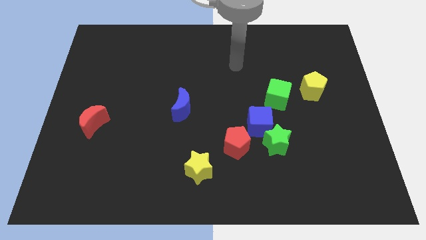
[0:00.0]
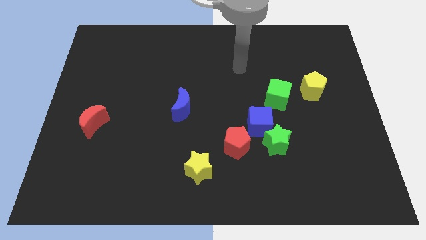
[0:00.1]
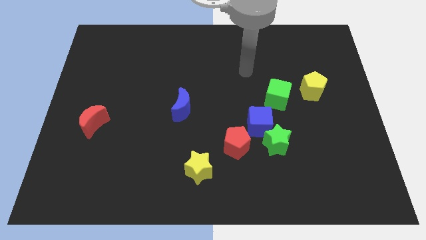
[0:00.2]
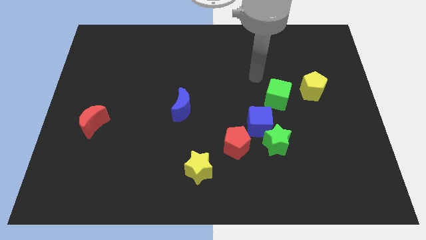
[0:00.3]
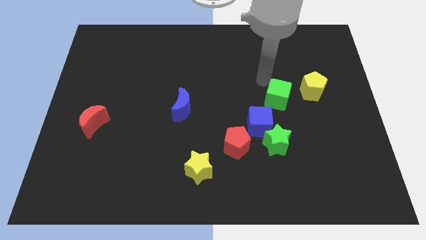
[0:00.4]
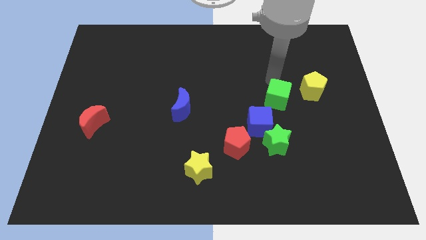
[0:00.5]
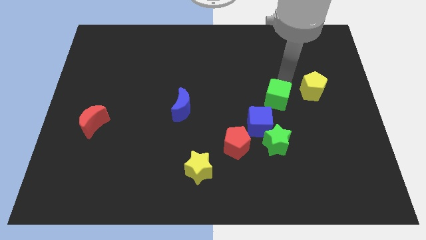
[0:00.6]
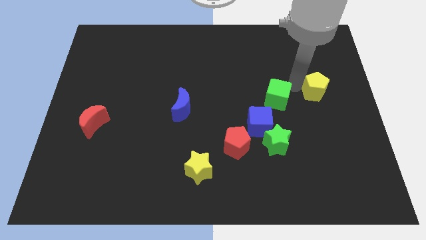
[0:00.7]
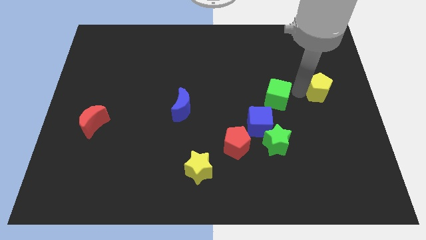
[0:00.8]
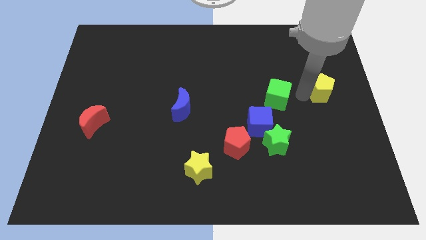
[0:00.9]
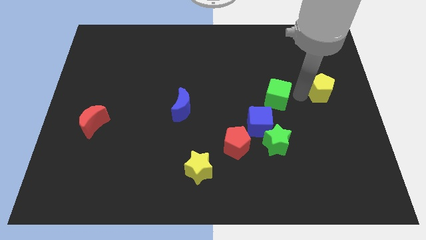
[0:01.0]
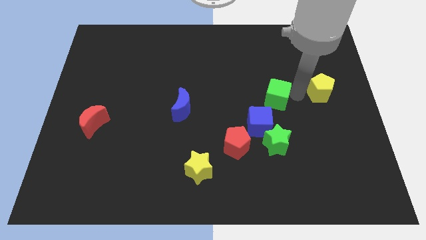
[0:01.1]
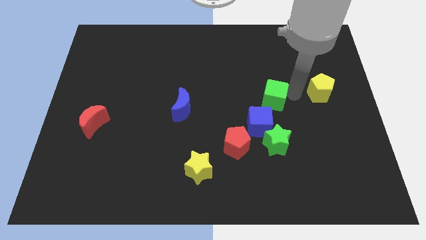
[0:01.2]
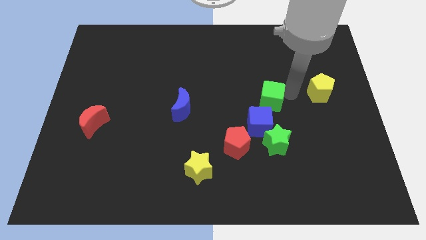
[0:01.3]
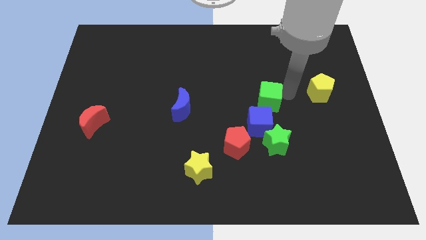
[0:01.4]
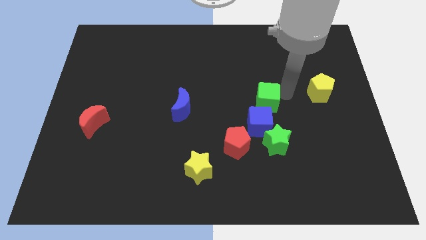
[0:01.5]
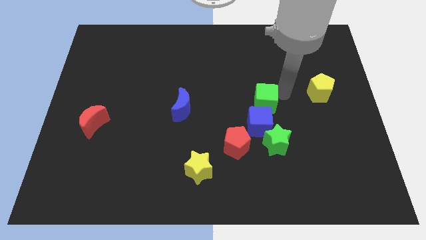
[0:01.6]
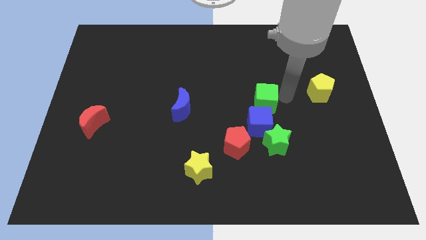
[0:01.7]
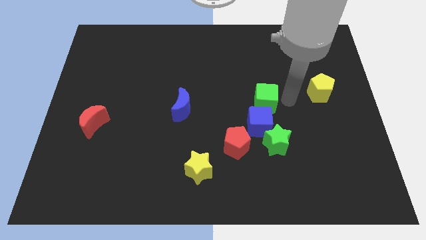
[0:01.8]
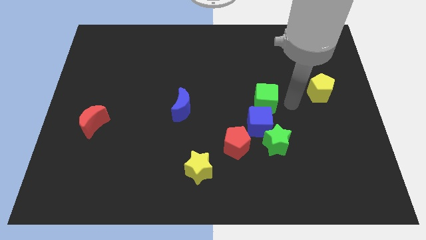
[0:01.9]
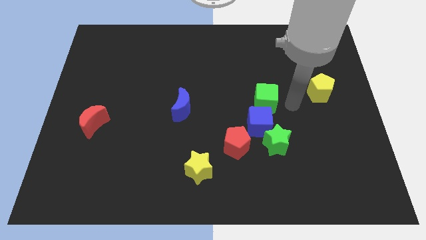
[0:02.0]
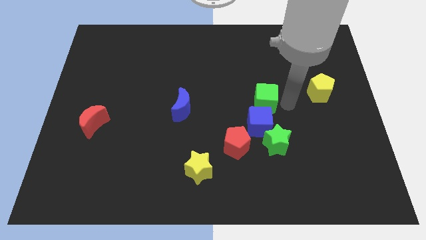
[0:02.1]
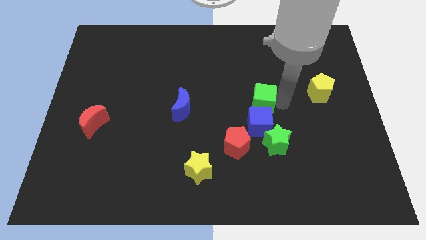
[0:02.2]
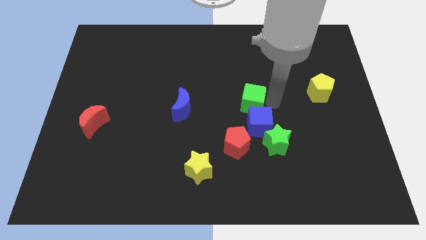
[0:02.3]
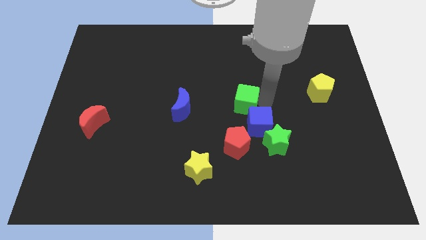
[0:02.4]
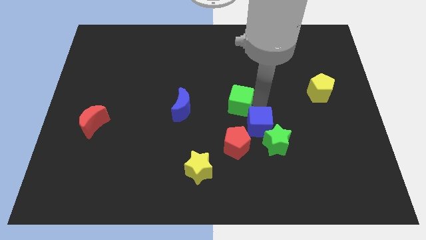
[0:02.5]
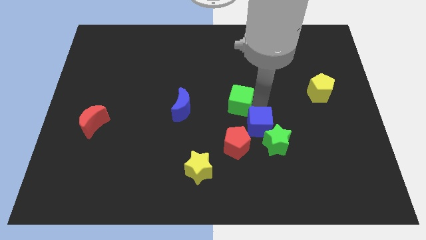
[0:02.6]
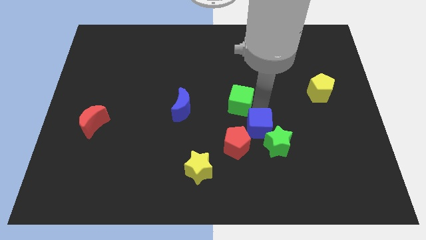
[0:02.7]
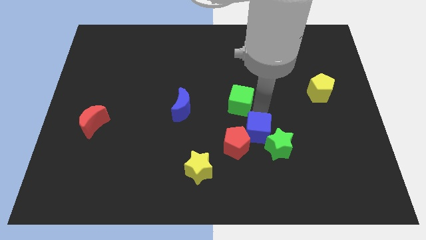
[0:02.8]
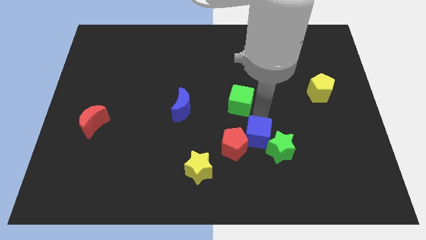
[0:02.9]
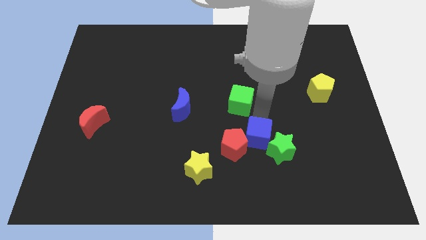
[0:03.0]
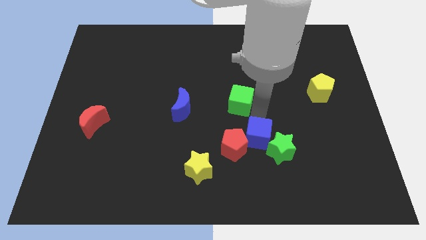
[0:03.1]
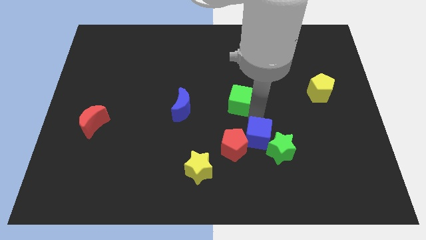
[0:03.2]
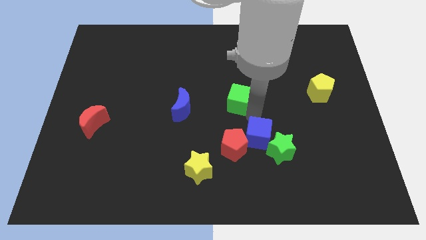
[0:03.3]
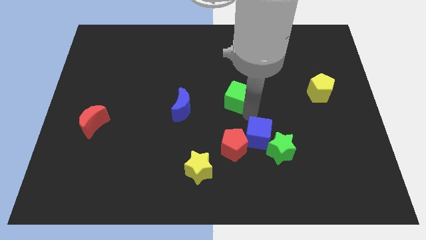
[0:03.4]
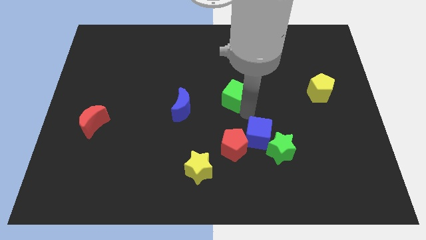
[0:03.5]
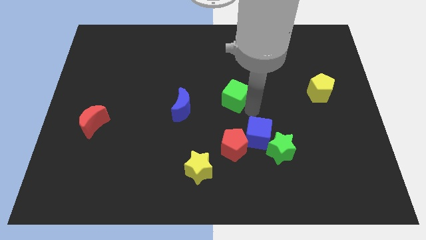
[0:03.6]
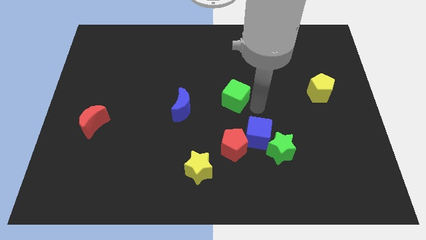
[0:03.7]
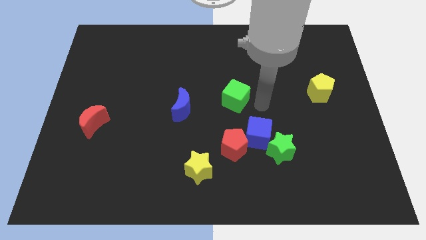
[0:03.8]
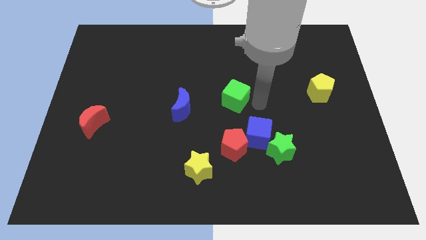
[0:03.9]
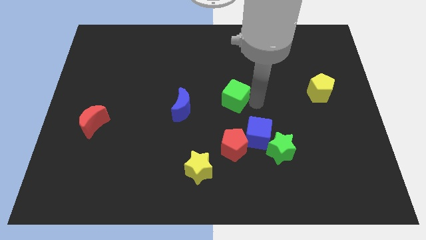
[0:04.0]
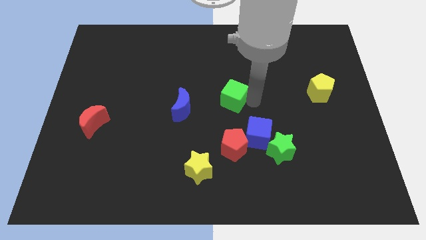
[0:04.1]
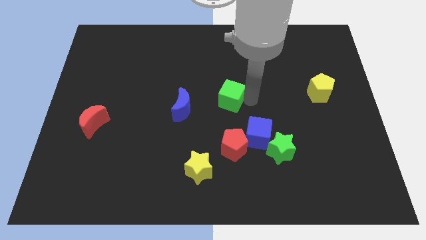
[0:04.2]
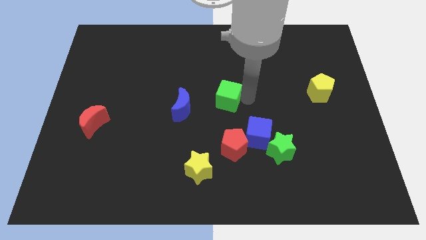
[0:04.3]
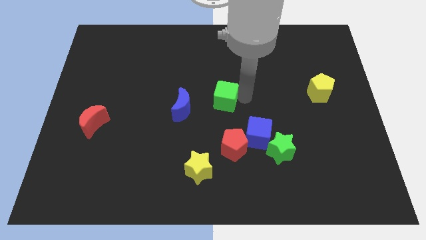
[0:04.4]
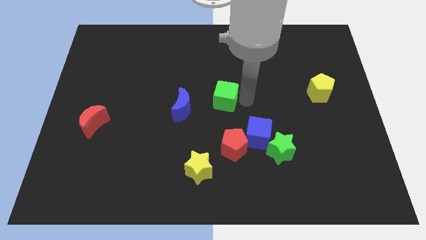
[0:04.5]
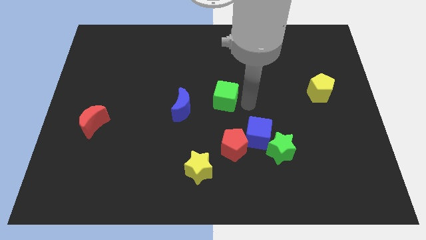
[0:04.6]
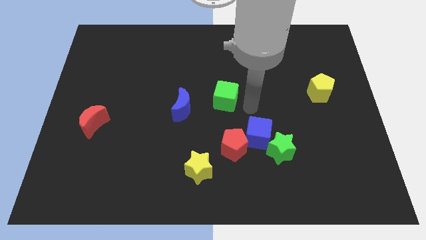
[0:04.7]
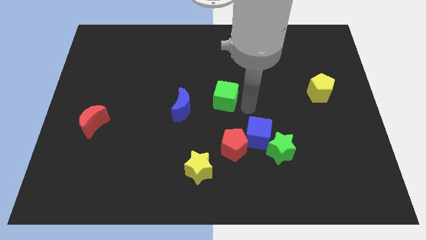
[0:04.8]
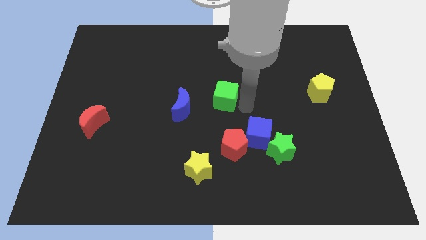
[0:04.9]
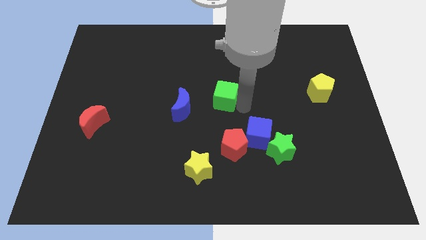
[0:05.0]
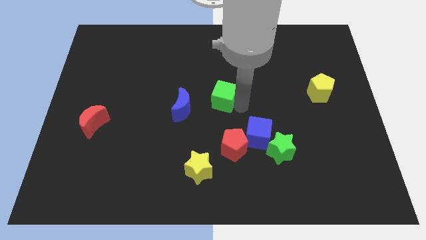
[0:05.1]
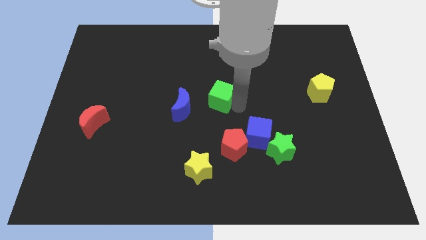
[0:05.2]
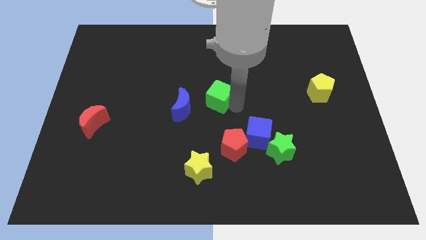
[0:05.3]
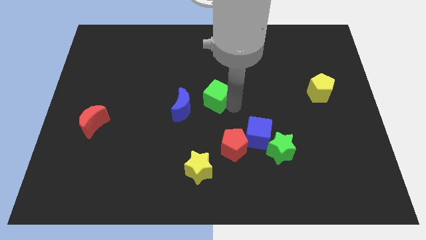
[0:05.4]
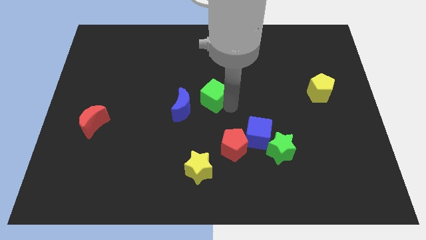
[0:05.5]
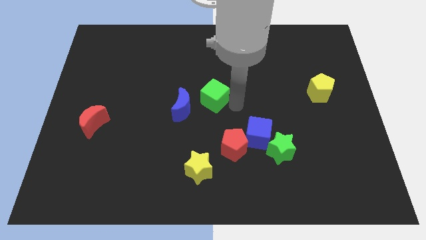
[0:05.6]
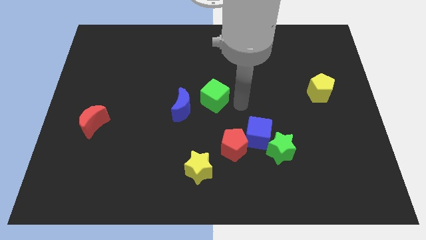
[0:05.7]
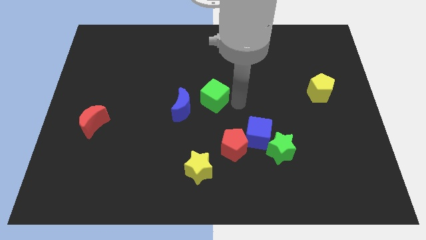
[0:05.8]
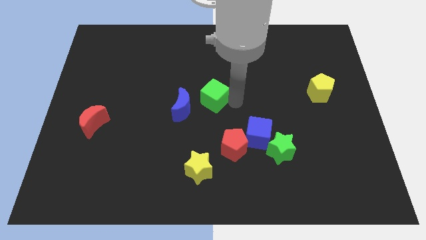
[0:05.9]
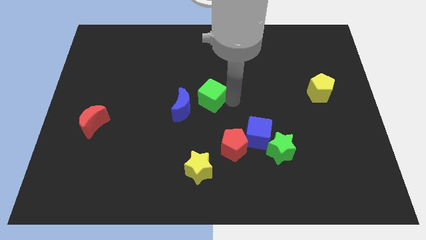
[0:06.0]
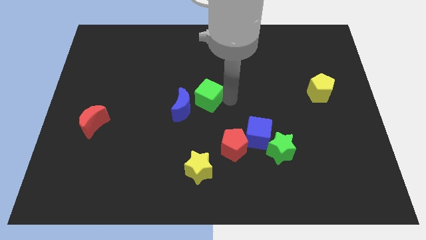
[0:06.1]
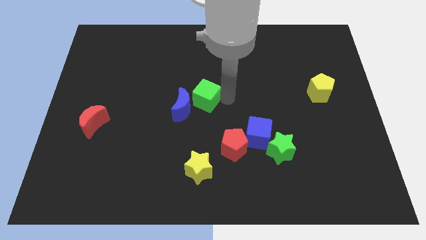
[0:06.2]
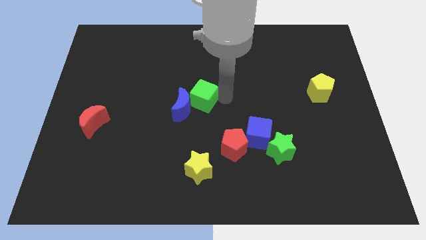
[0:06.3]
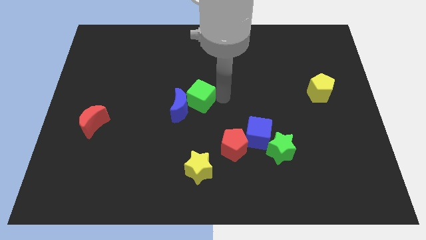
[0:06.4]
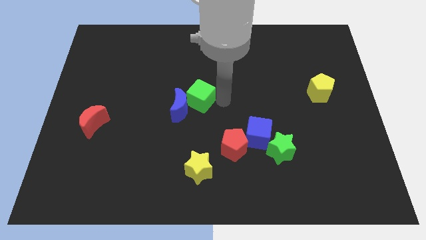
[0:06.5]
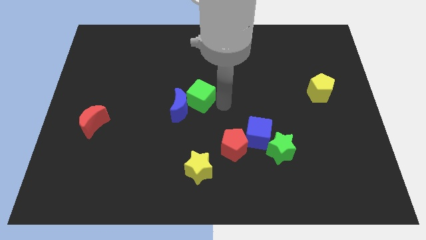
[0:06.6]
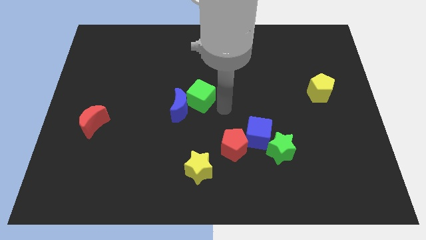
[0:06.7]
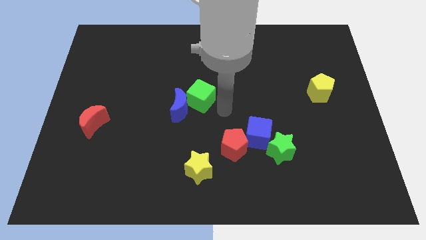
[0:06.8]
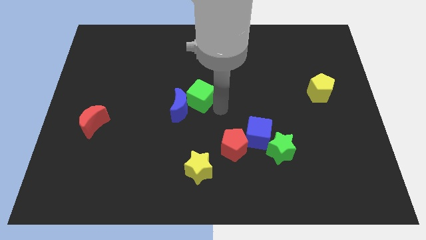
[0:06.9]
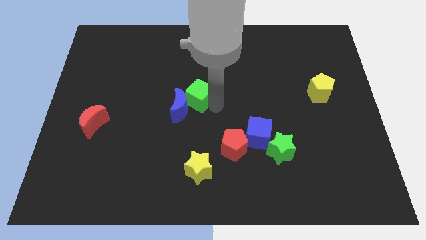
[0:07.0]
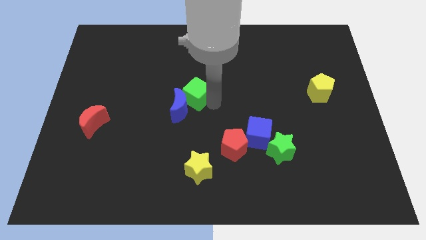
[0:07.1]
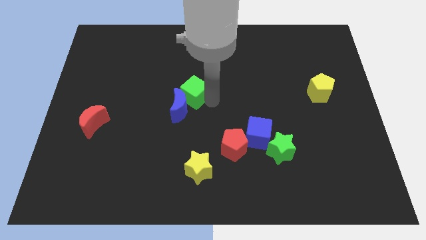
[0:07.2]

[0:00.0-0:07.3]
push the green cube left

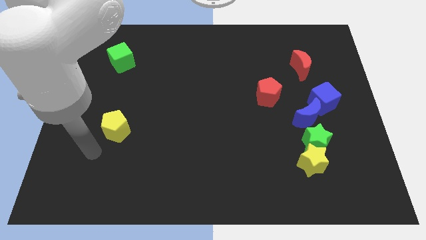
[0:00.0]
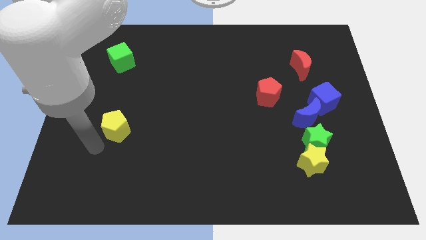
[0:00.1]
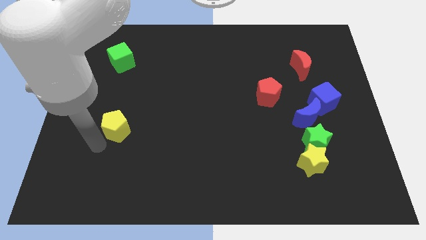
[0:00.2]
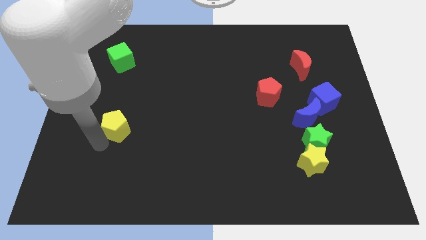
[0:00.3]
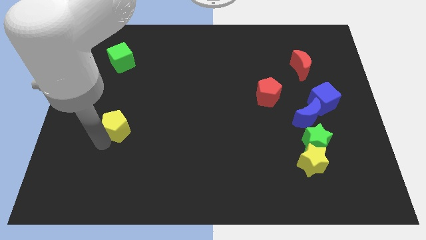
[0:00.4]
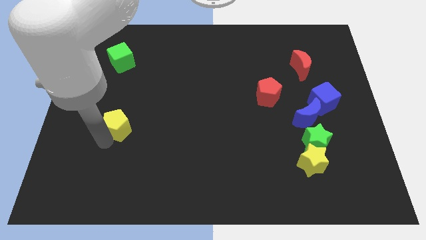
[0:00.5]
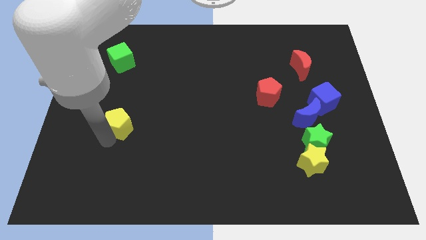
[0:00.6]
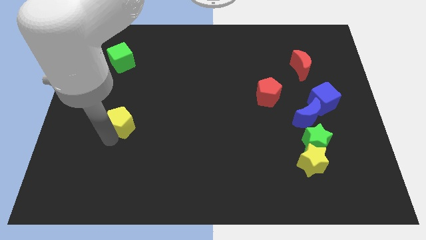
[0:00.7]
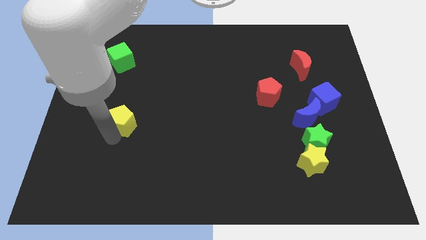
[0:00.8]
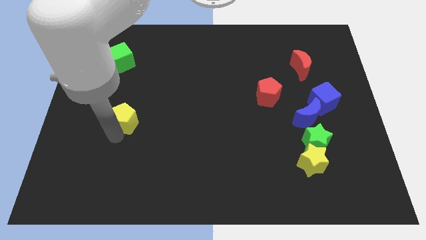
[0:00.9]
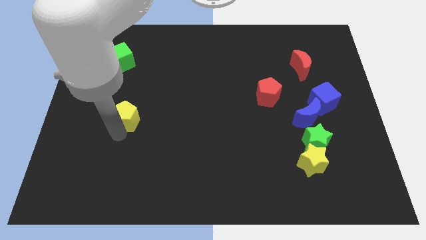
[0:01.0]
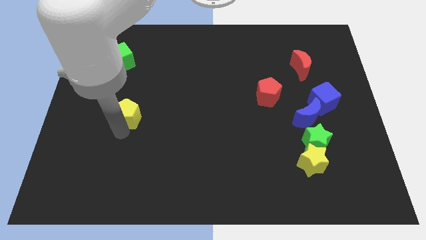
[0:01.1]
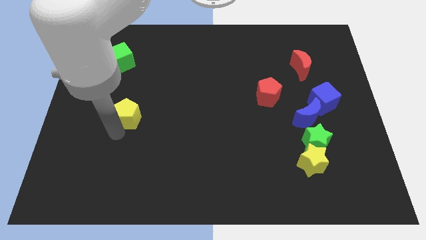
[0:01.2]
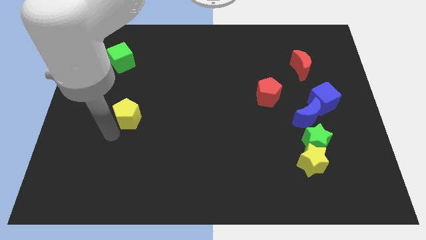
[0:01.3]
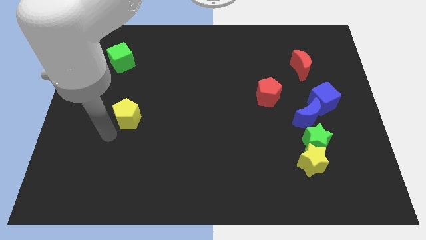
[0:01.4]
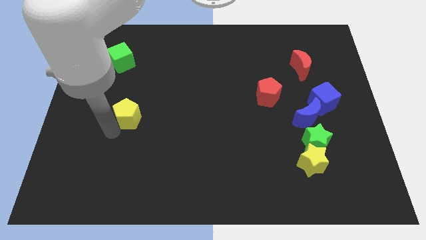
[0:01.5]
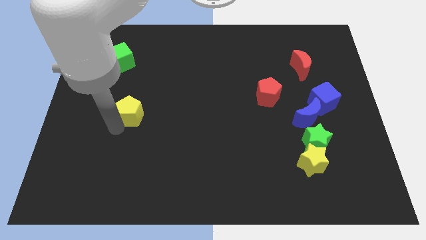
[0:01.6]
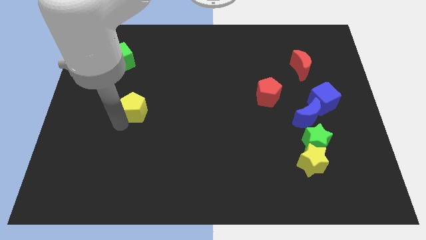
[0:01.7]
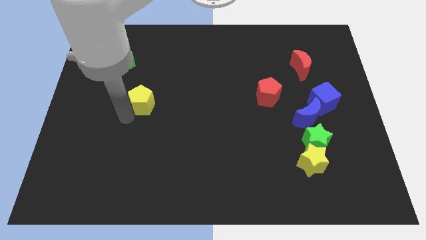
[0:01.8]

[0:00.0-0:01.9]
push the yellow pentagon a little up and then right
